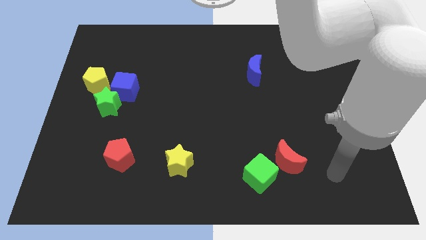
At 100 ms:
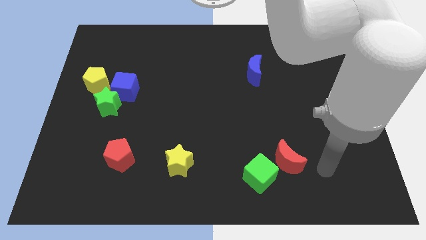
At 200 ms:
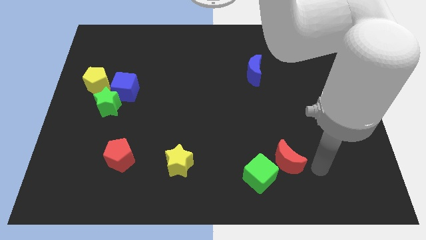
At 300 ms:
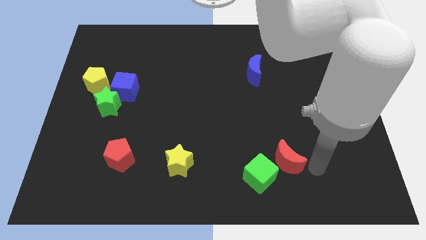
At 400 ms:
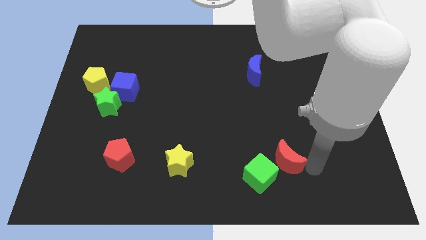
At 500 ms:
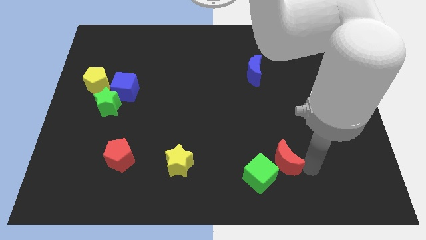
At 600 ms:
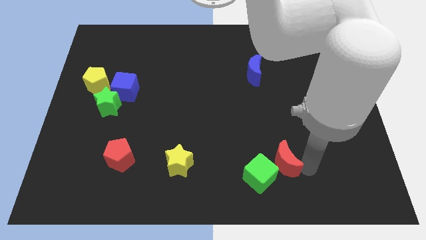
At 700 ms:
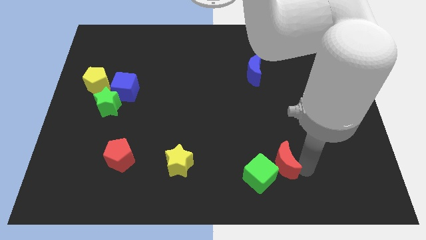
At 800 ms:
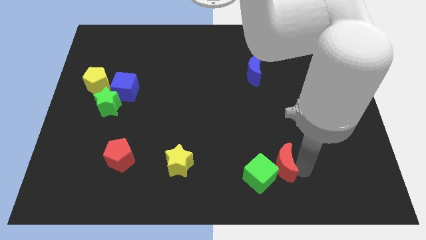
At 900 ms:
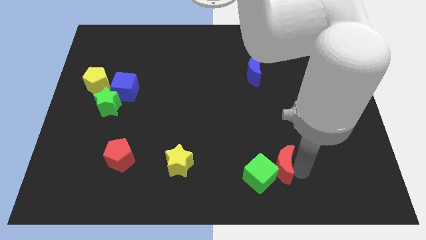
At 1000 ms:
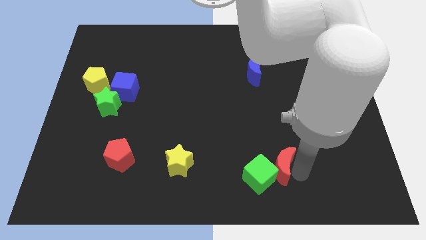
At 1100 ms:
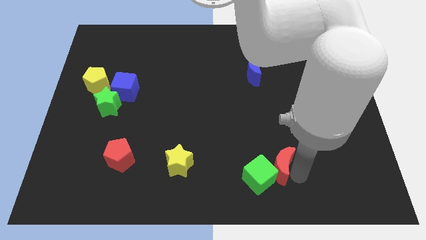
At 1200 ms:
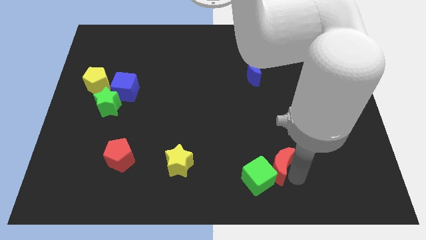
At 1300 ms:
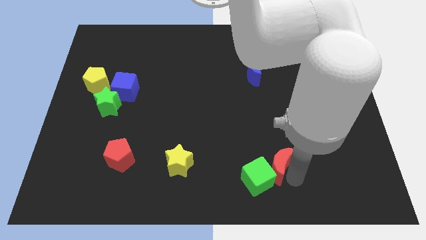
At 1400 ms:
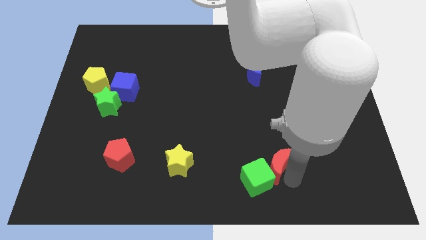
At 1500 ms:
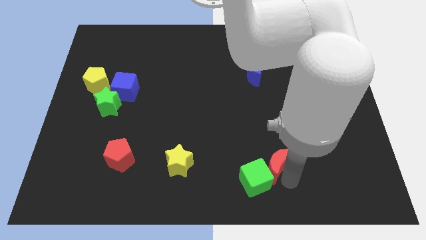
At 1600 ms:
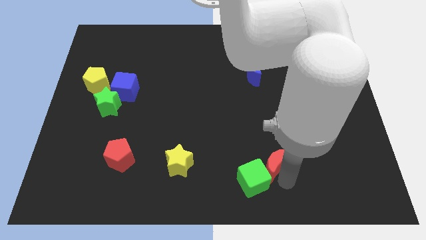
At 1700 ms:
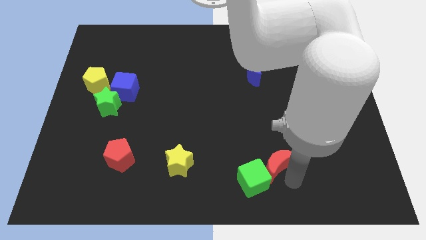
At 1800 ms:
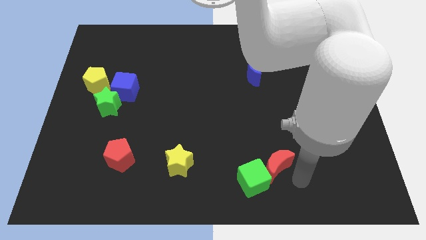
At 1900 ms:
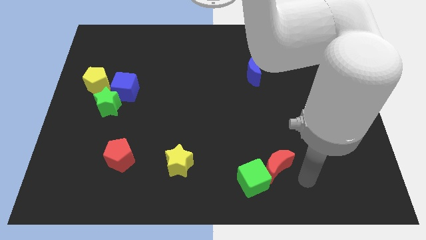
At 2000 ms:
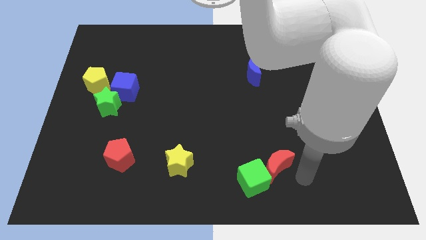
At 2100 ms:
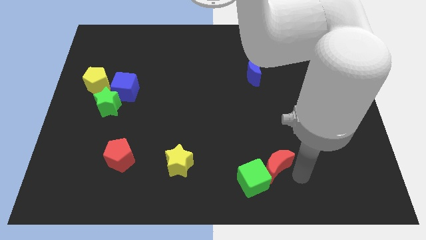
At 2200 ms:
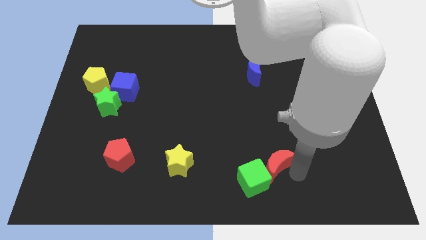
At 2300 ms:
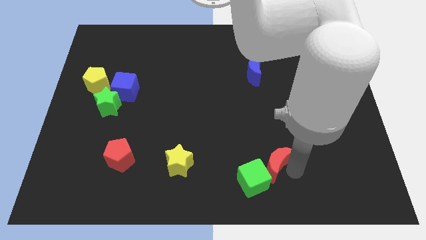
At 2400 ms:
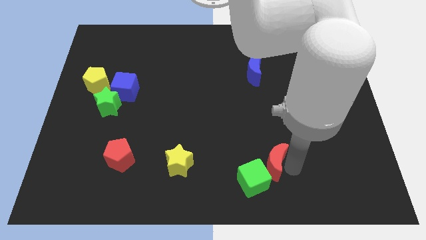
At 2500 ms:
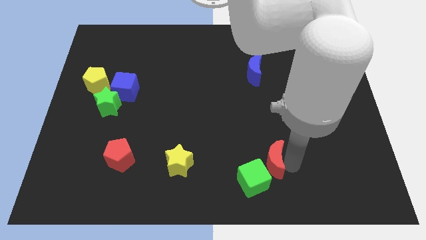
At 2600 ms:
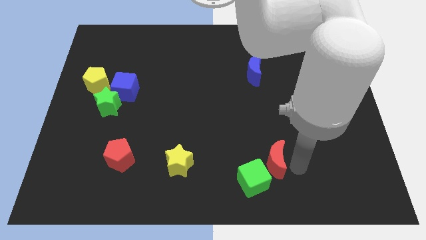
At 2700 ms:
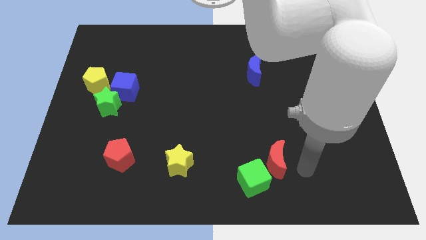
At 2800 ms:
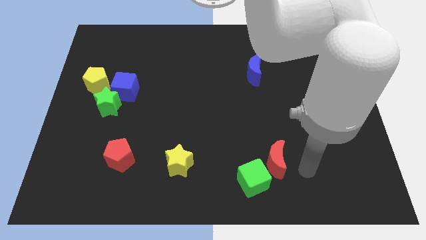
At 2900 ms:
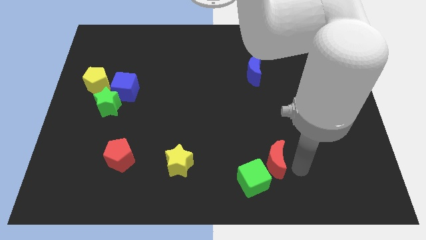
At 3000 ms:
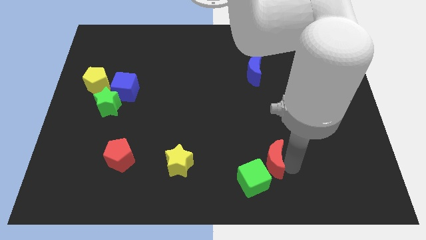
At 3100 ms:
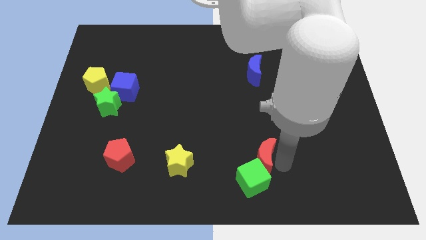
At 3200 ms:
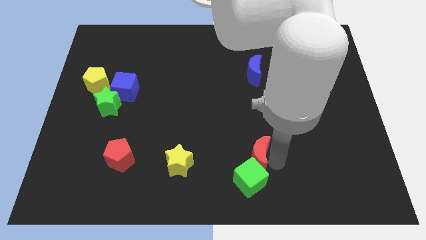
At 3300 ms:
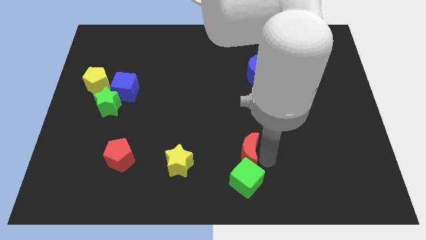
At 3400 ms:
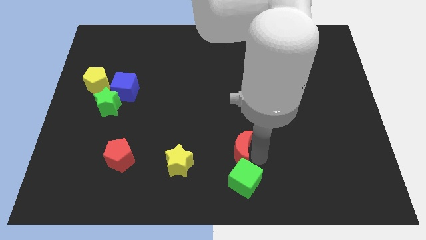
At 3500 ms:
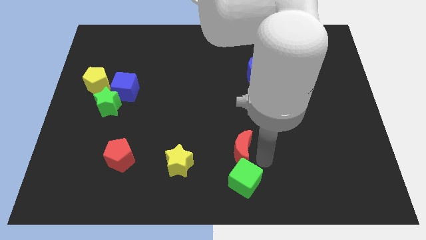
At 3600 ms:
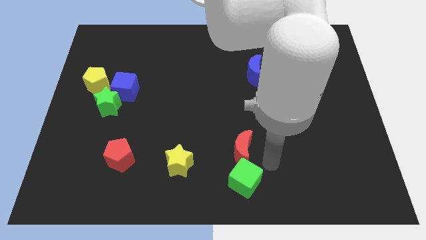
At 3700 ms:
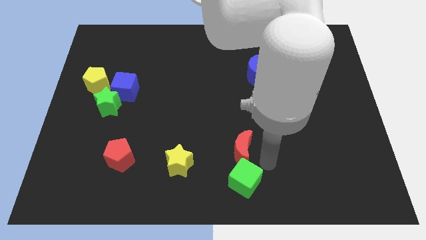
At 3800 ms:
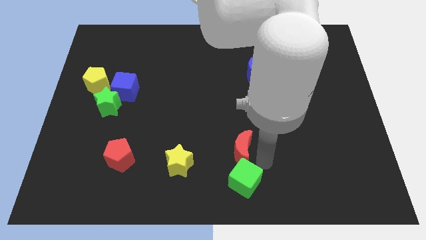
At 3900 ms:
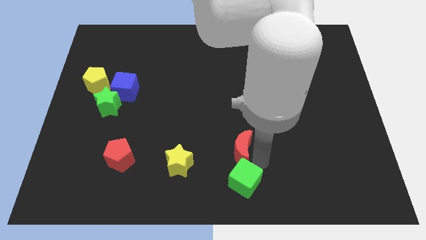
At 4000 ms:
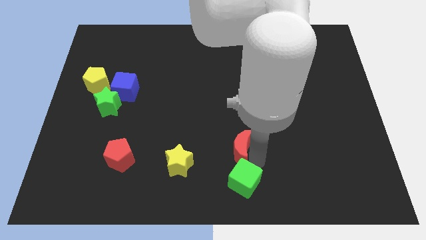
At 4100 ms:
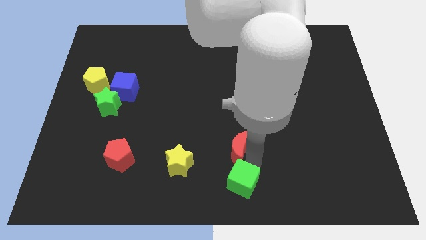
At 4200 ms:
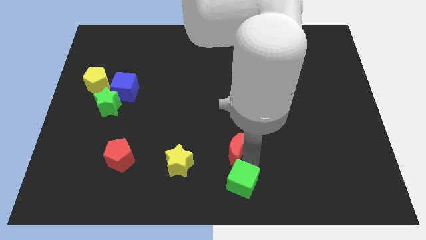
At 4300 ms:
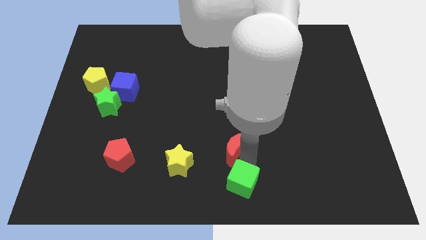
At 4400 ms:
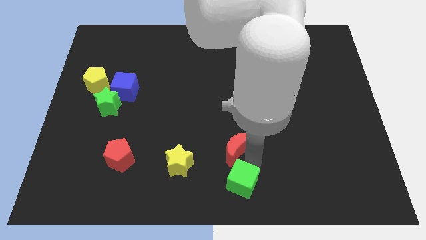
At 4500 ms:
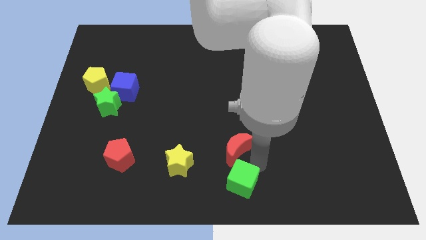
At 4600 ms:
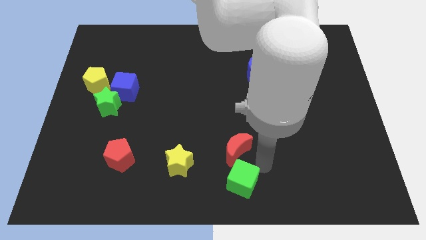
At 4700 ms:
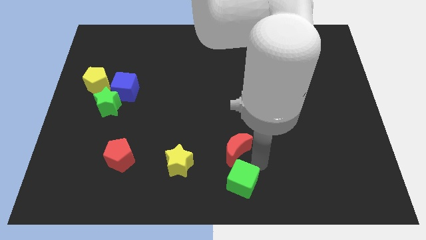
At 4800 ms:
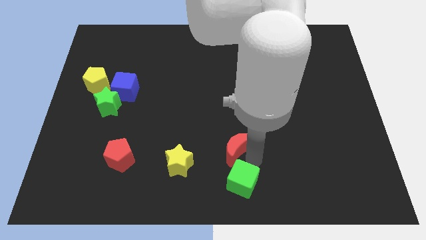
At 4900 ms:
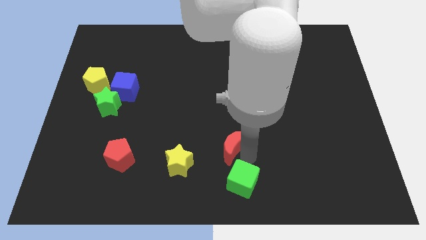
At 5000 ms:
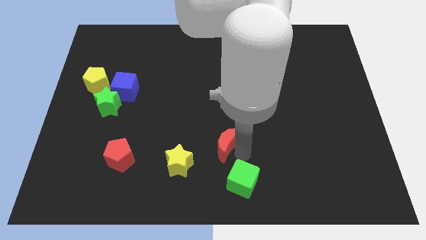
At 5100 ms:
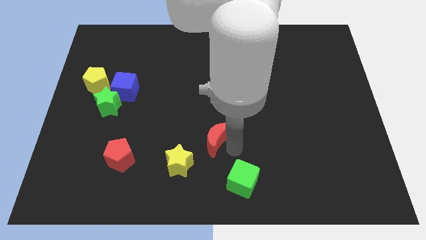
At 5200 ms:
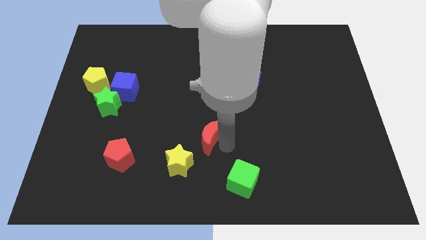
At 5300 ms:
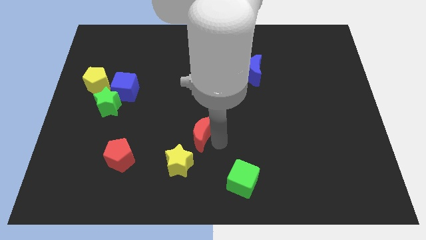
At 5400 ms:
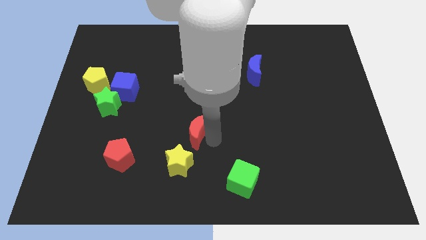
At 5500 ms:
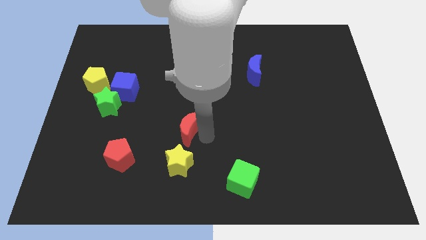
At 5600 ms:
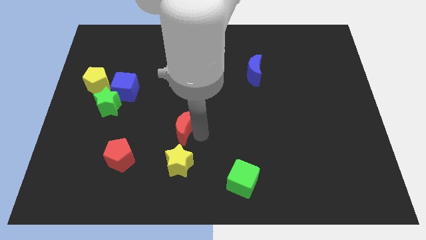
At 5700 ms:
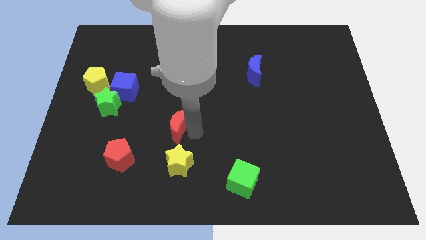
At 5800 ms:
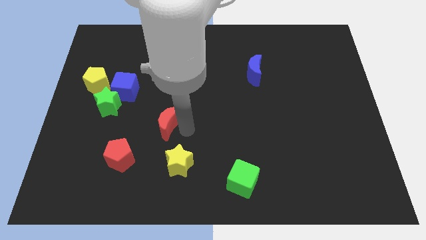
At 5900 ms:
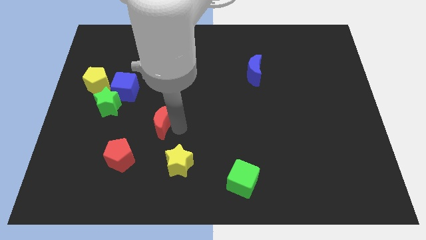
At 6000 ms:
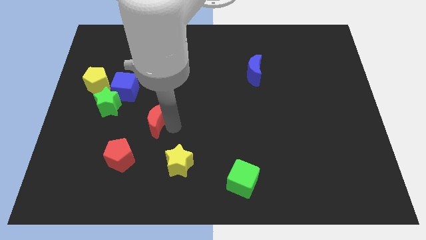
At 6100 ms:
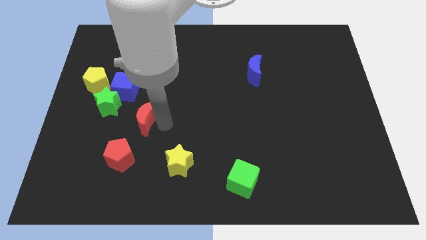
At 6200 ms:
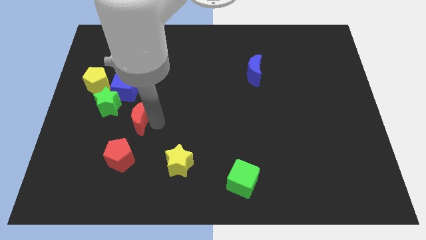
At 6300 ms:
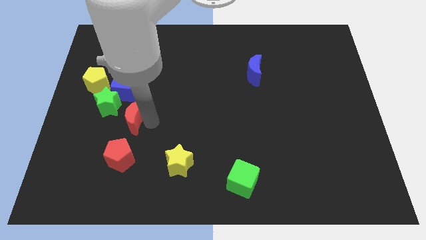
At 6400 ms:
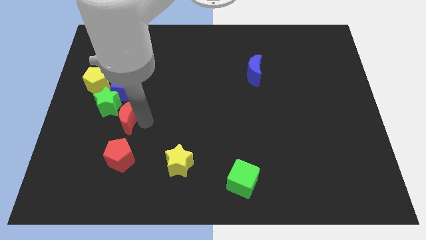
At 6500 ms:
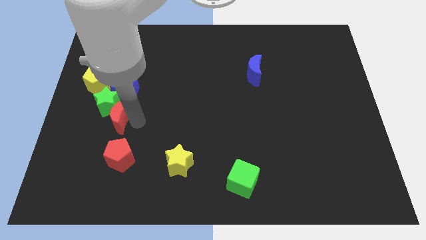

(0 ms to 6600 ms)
put the red moon towards the green star

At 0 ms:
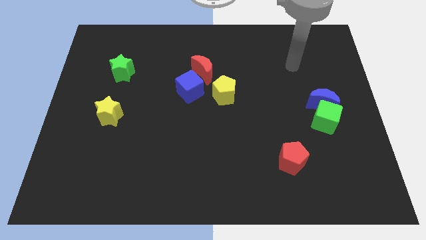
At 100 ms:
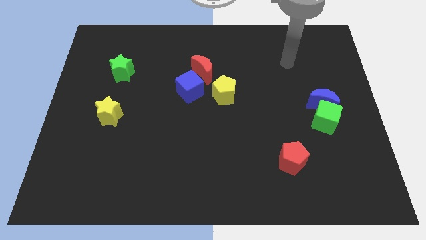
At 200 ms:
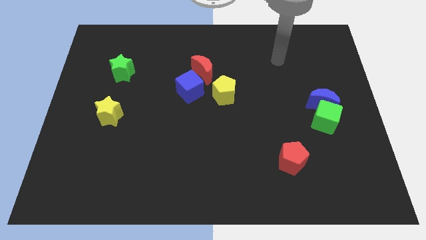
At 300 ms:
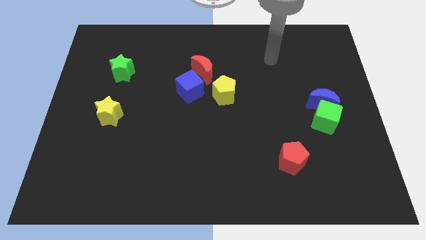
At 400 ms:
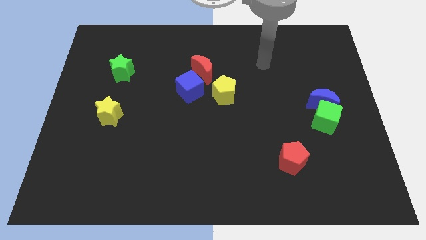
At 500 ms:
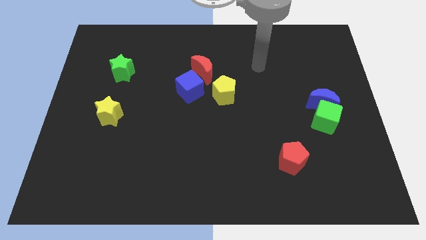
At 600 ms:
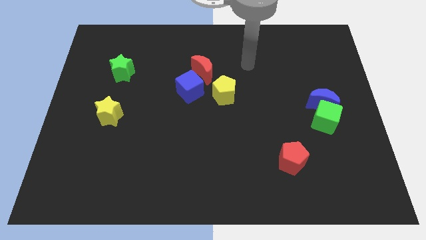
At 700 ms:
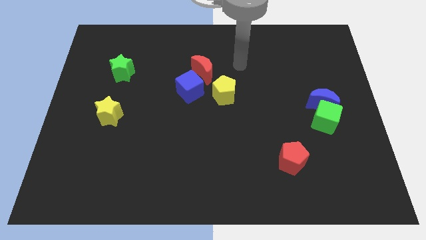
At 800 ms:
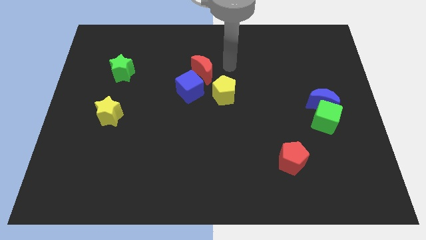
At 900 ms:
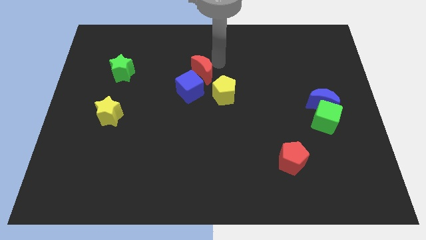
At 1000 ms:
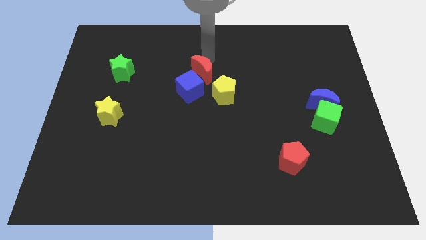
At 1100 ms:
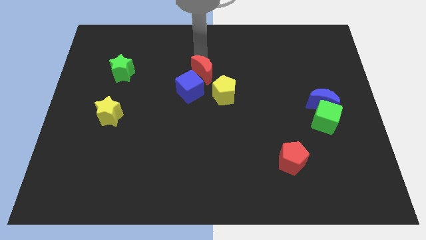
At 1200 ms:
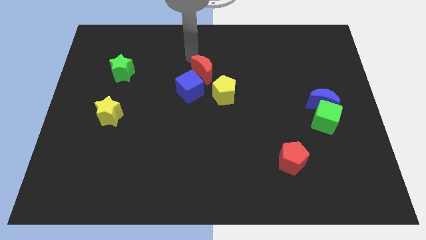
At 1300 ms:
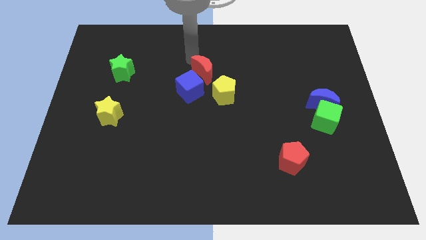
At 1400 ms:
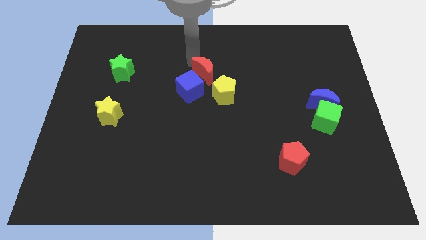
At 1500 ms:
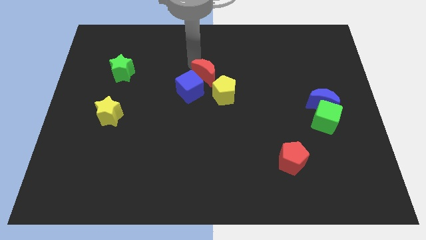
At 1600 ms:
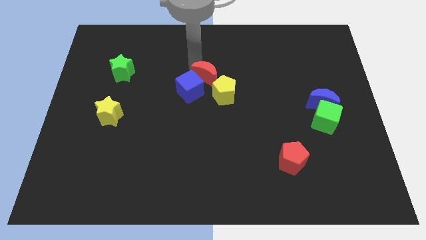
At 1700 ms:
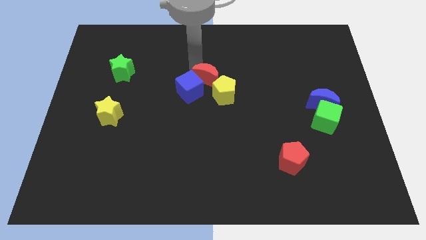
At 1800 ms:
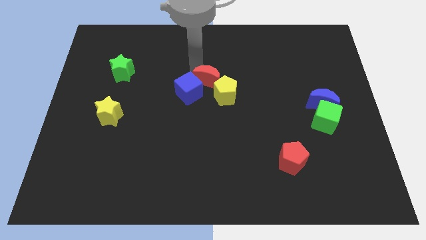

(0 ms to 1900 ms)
move the red moon to the yellow pentagon
